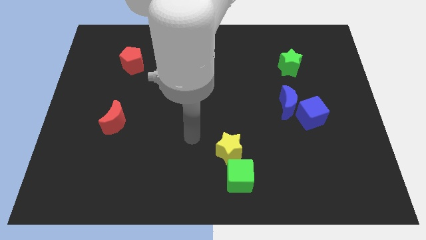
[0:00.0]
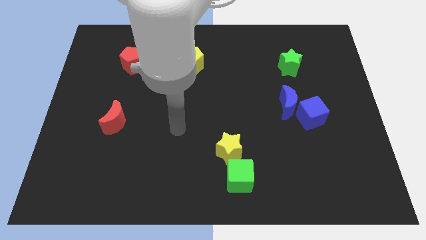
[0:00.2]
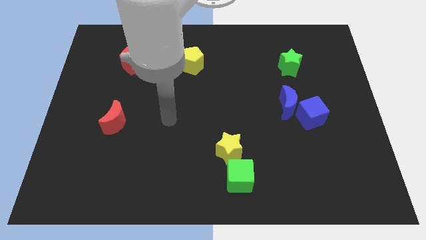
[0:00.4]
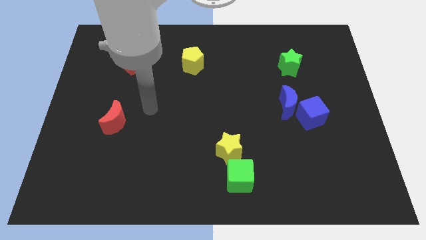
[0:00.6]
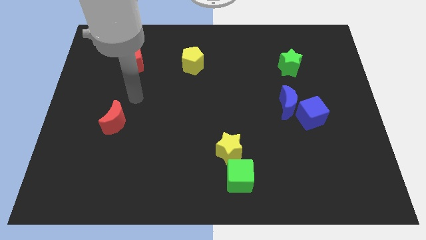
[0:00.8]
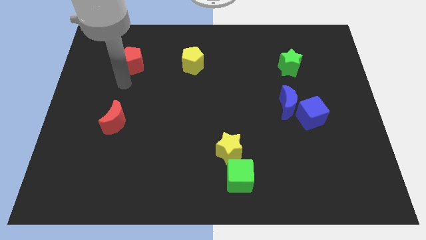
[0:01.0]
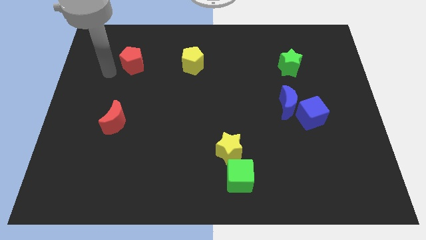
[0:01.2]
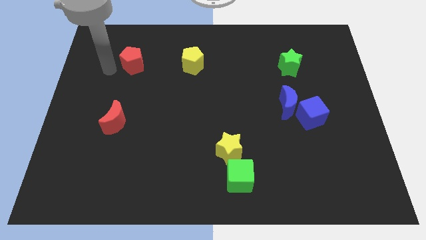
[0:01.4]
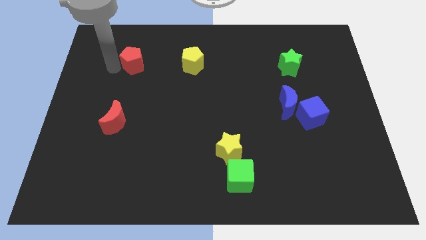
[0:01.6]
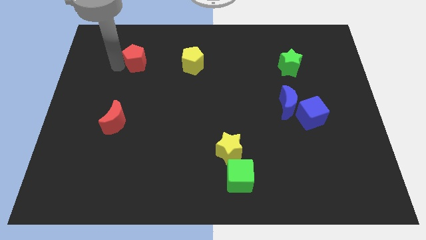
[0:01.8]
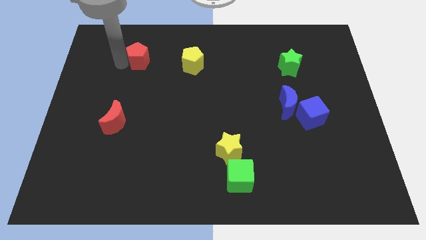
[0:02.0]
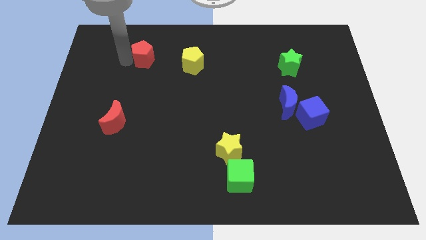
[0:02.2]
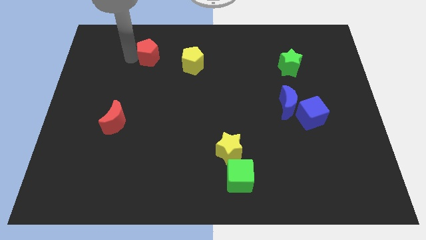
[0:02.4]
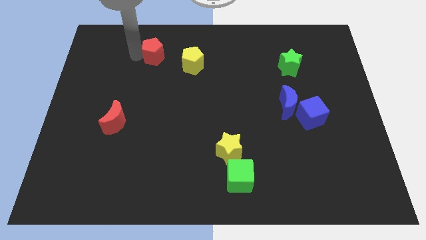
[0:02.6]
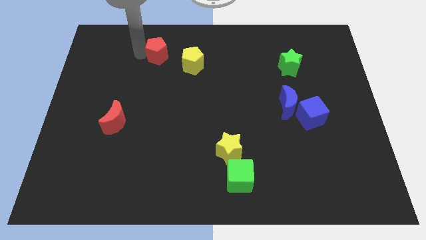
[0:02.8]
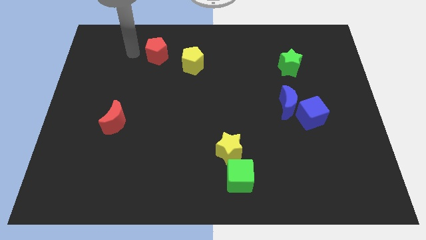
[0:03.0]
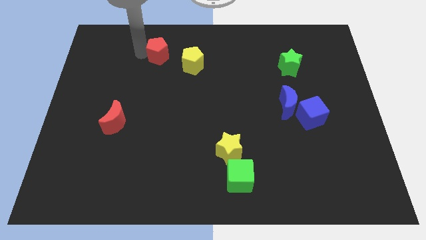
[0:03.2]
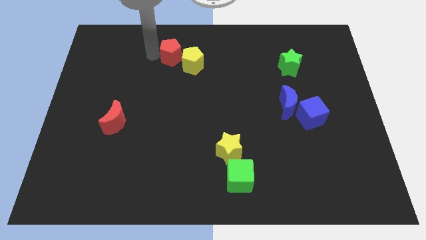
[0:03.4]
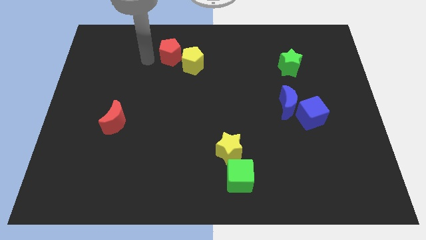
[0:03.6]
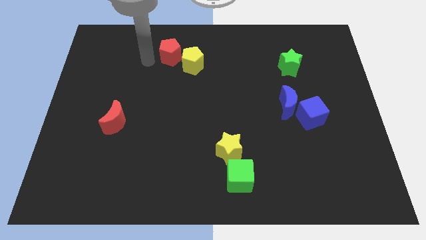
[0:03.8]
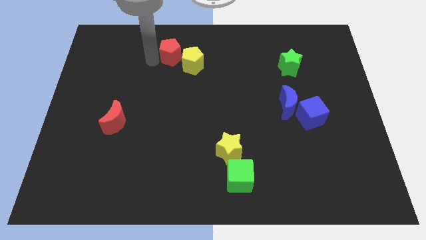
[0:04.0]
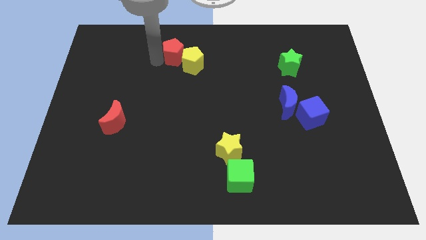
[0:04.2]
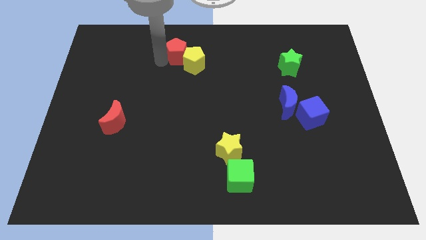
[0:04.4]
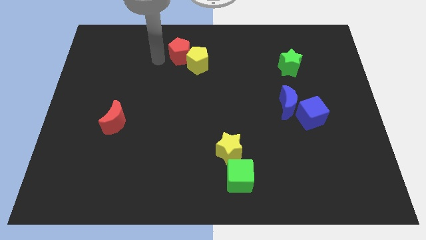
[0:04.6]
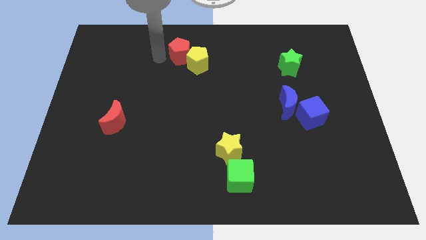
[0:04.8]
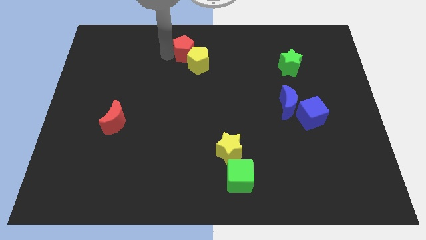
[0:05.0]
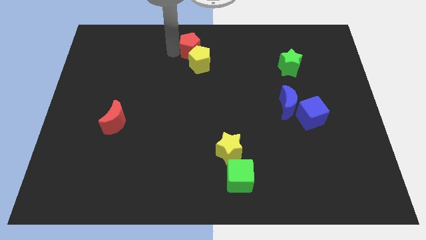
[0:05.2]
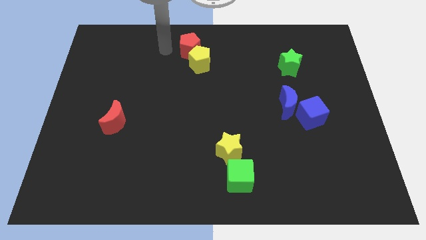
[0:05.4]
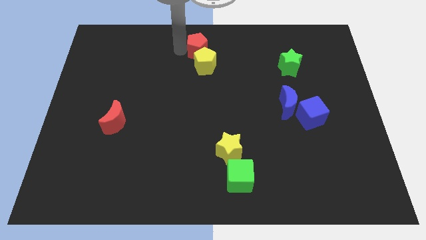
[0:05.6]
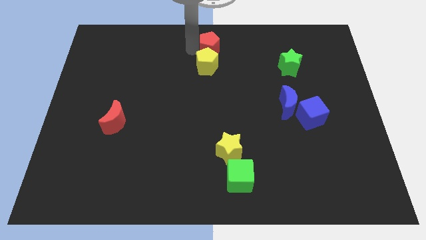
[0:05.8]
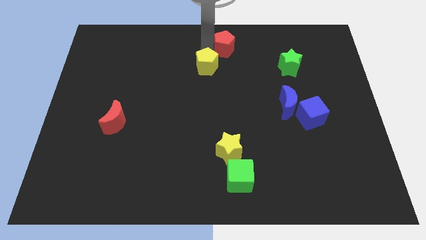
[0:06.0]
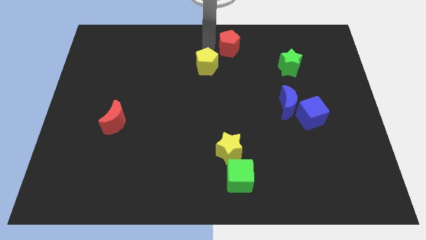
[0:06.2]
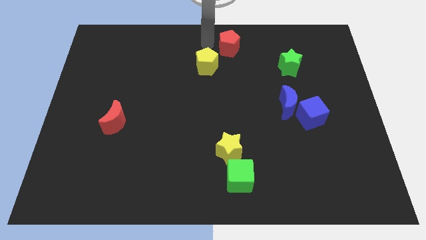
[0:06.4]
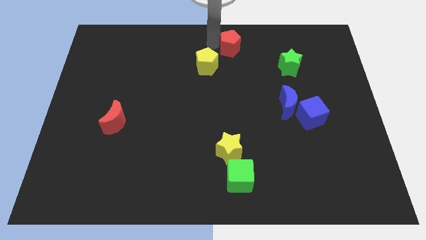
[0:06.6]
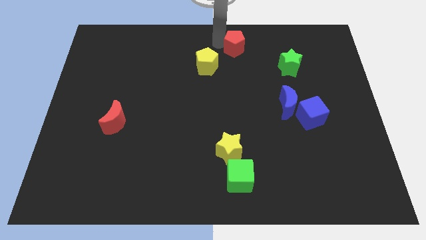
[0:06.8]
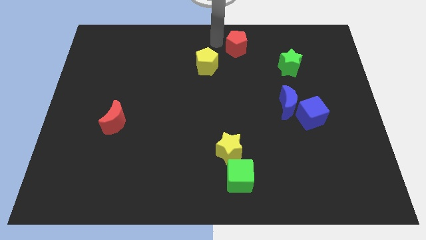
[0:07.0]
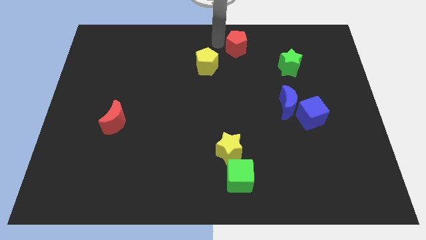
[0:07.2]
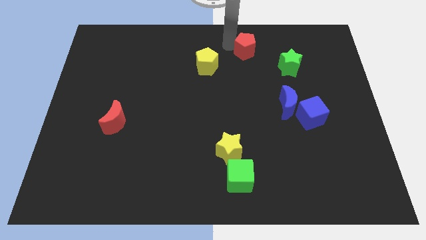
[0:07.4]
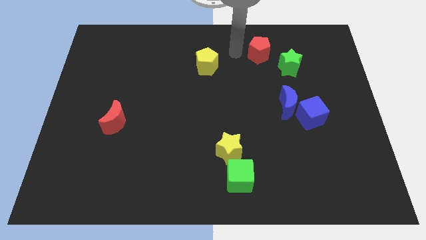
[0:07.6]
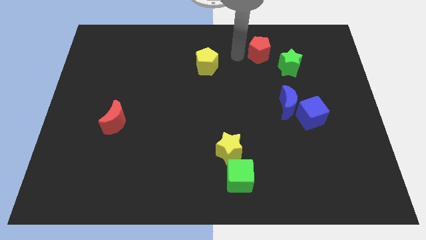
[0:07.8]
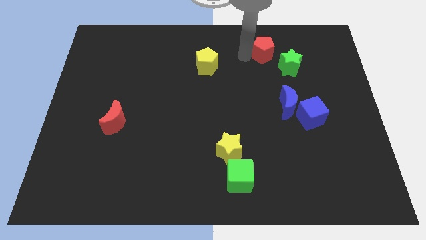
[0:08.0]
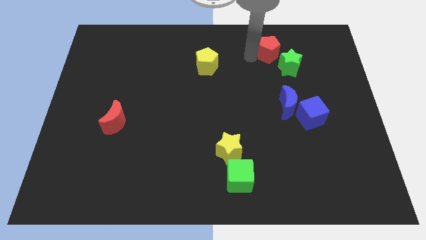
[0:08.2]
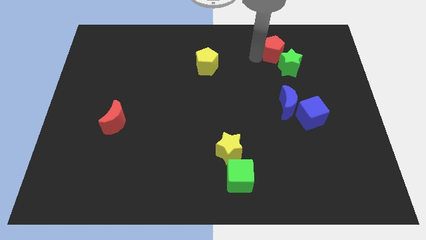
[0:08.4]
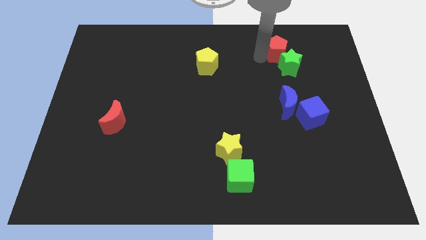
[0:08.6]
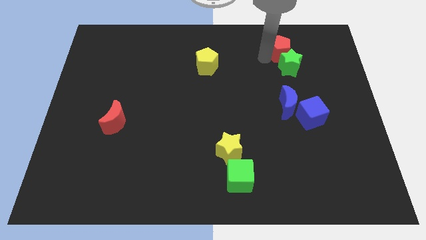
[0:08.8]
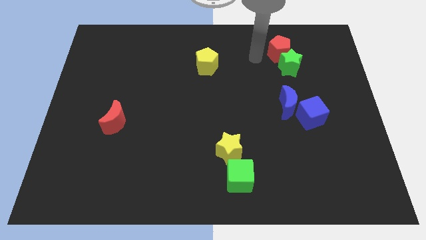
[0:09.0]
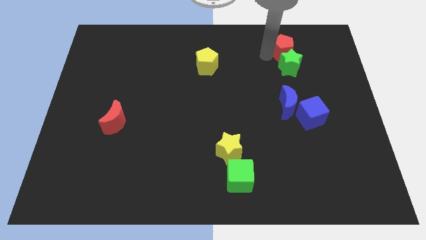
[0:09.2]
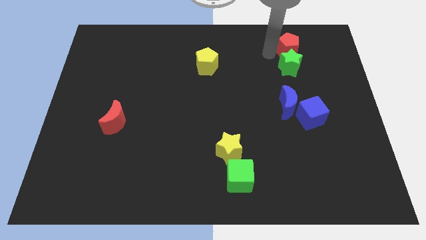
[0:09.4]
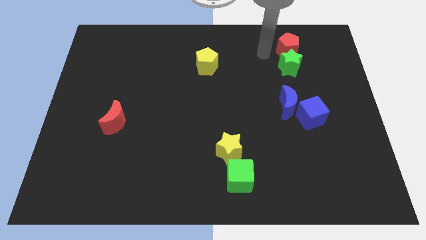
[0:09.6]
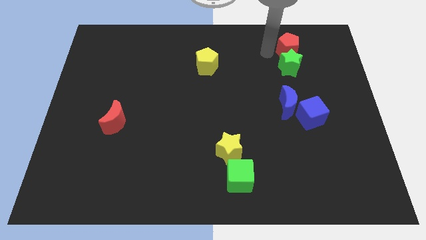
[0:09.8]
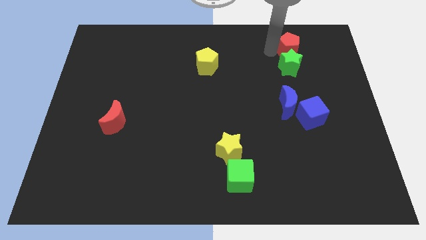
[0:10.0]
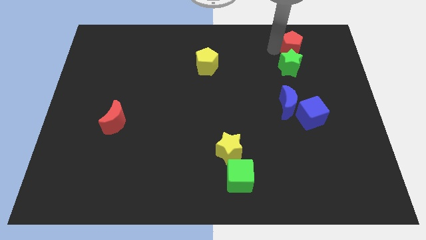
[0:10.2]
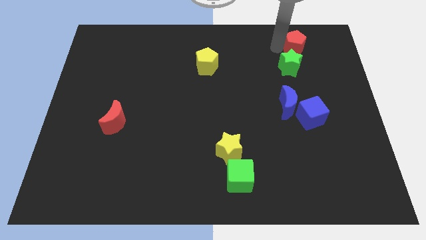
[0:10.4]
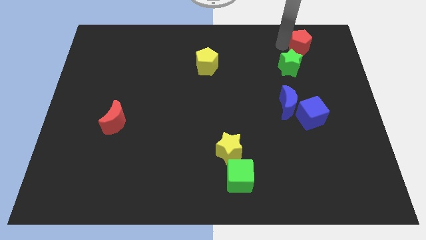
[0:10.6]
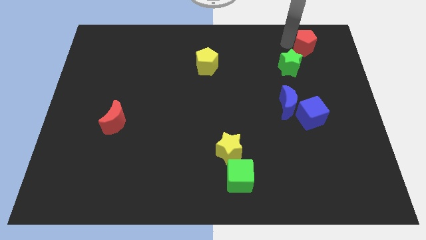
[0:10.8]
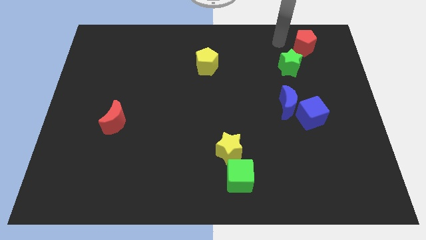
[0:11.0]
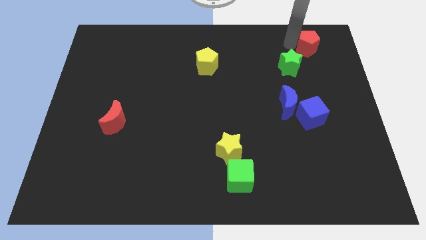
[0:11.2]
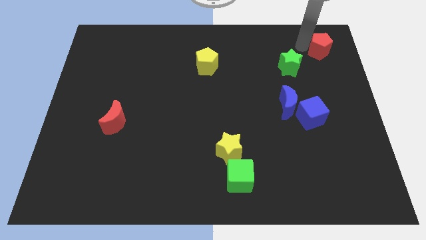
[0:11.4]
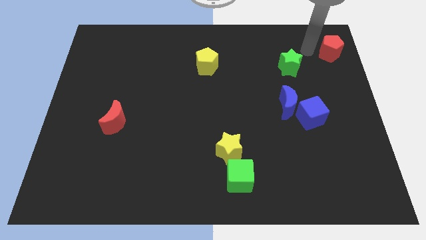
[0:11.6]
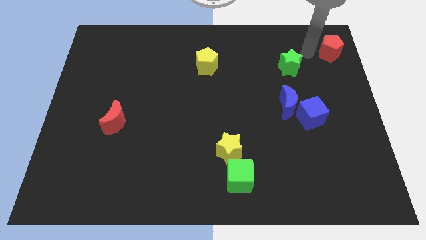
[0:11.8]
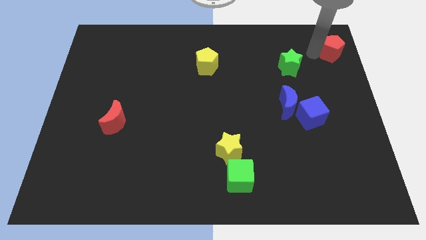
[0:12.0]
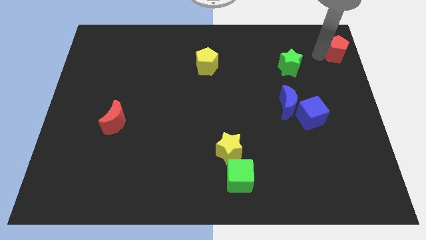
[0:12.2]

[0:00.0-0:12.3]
push the red pentagon to the top right
